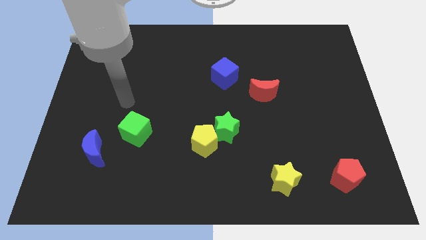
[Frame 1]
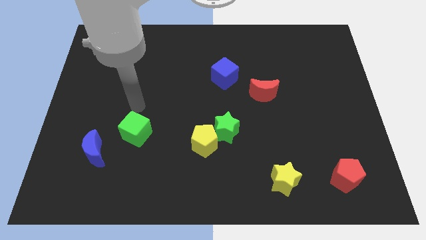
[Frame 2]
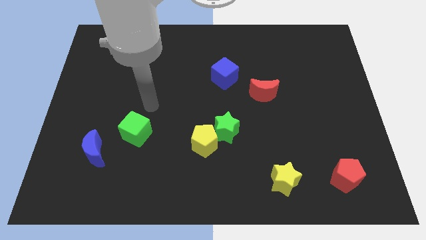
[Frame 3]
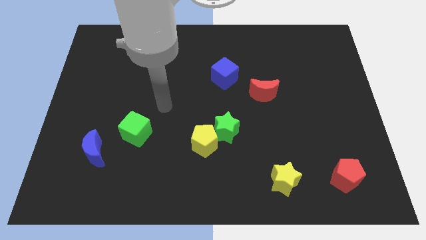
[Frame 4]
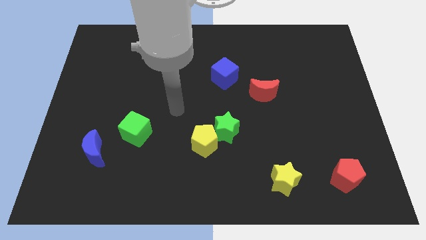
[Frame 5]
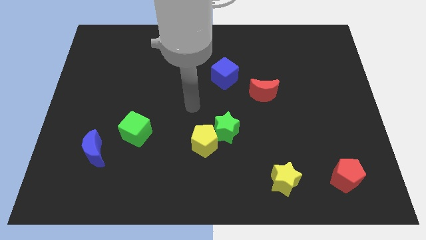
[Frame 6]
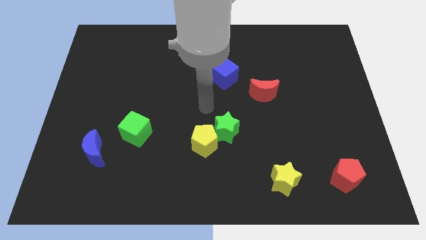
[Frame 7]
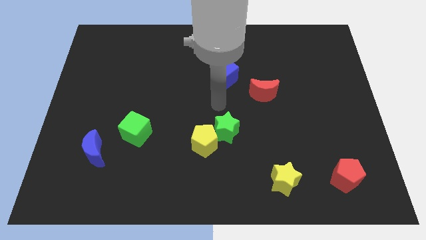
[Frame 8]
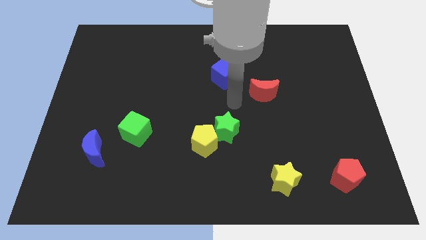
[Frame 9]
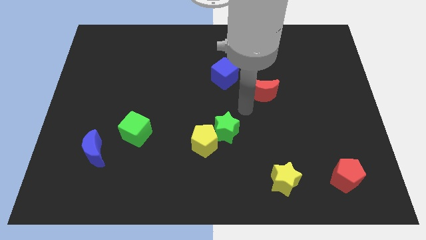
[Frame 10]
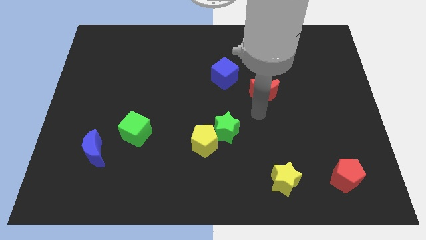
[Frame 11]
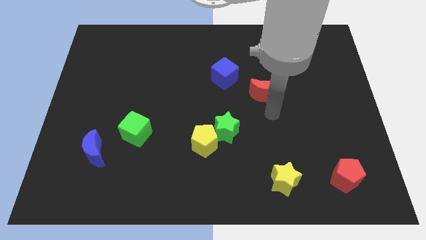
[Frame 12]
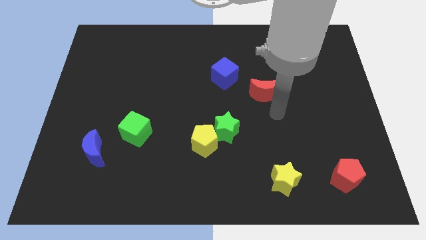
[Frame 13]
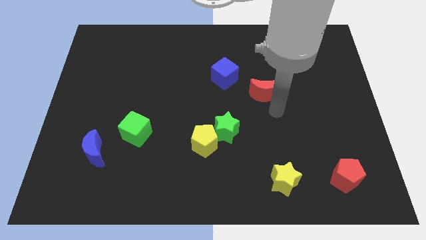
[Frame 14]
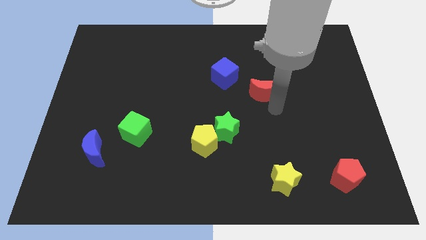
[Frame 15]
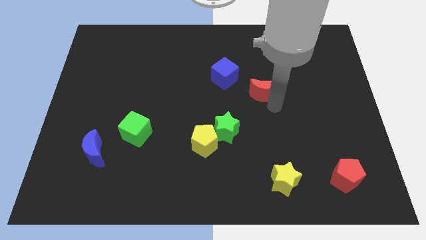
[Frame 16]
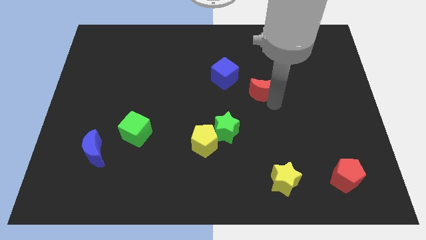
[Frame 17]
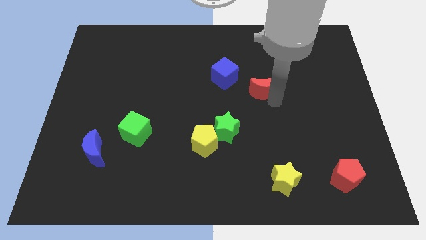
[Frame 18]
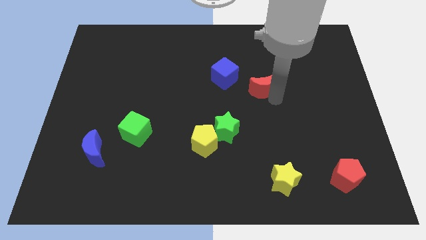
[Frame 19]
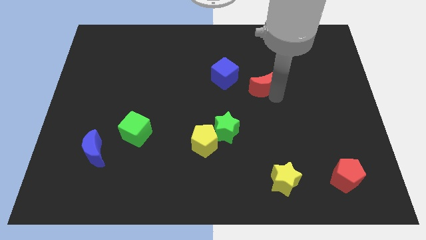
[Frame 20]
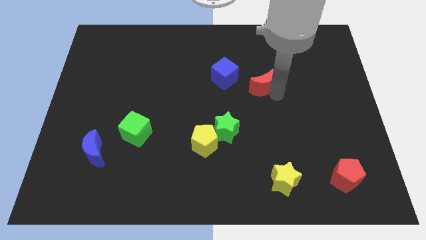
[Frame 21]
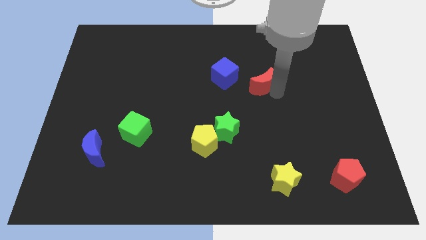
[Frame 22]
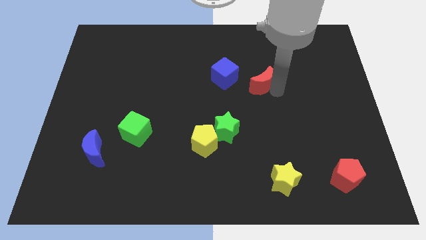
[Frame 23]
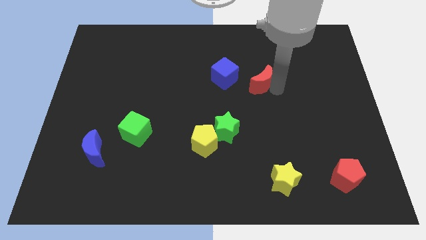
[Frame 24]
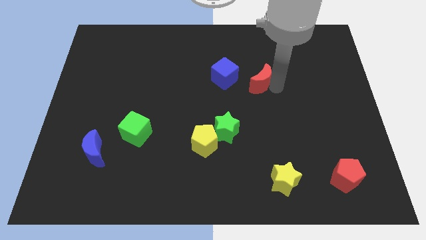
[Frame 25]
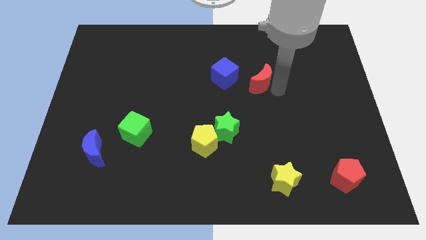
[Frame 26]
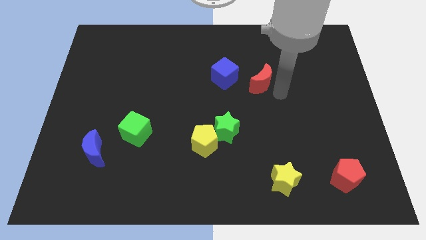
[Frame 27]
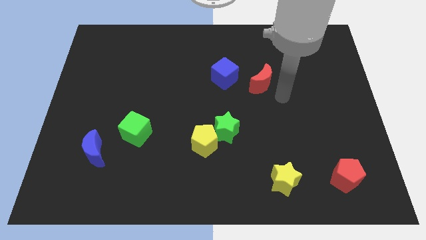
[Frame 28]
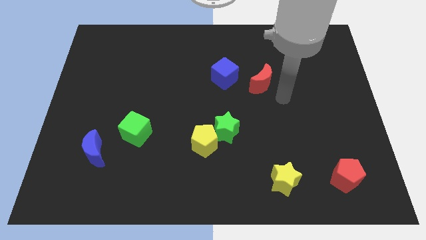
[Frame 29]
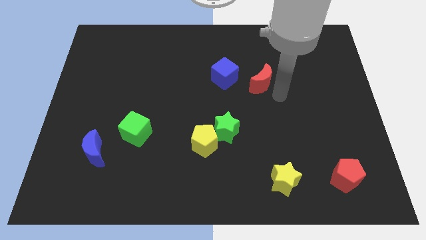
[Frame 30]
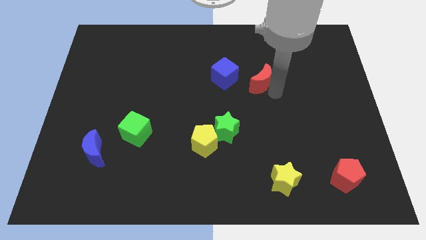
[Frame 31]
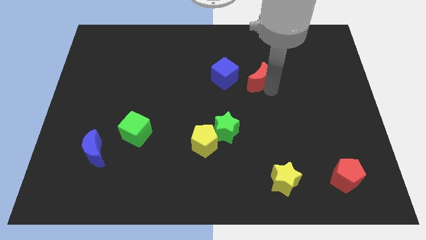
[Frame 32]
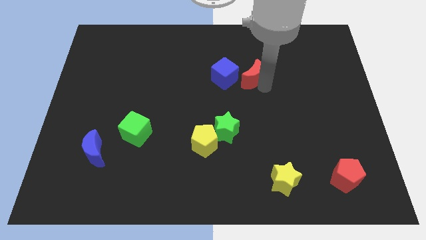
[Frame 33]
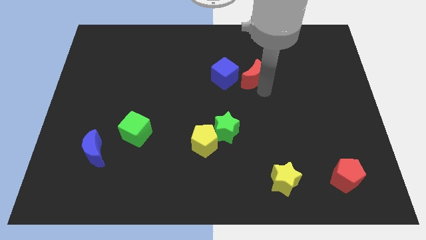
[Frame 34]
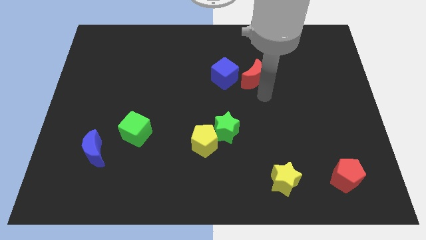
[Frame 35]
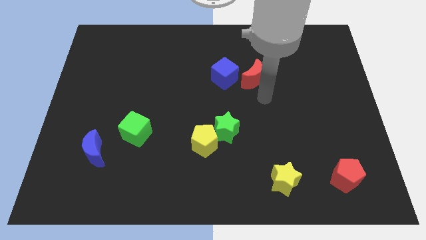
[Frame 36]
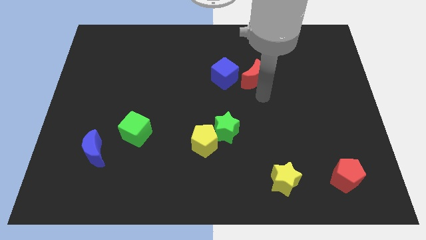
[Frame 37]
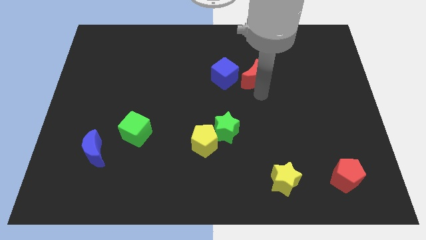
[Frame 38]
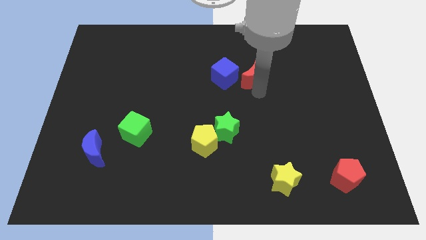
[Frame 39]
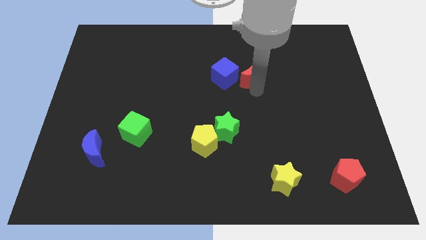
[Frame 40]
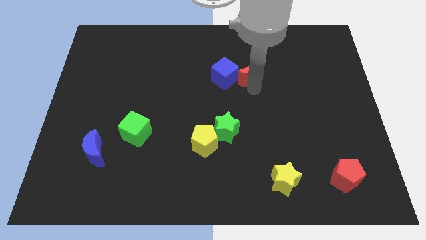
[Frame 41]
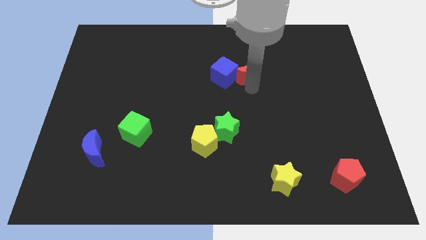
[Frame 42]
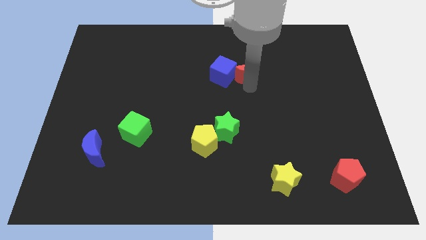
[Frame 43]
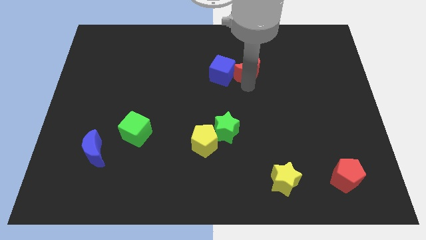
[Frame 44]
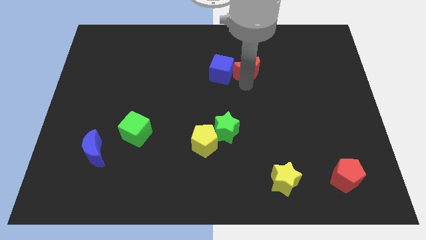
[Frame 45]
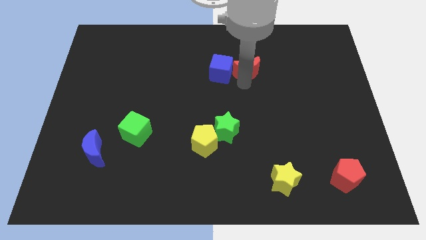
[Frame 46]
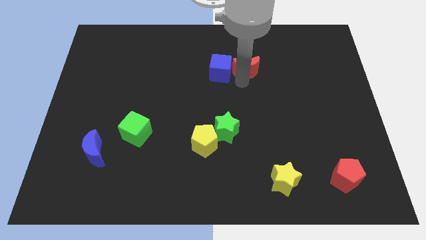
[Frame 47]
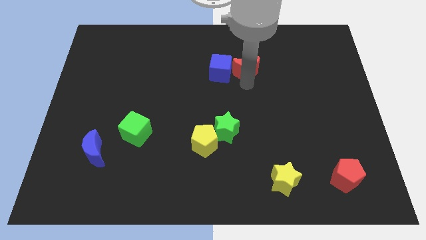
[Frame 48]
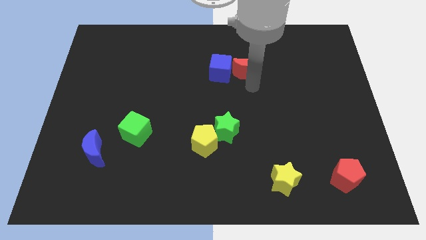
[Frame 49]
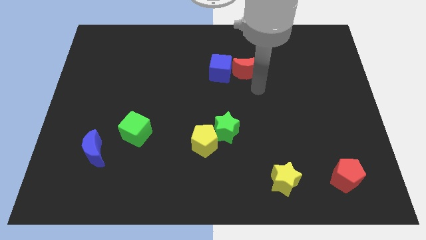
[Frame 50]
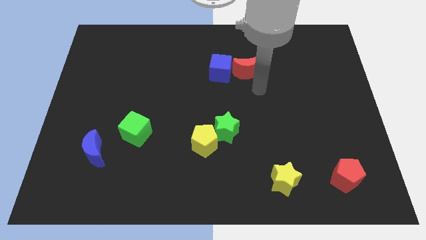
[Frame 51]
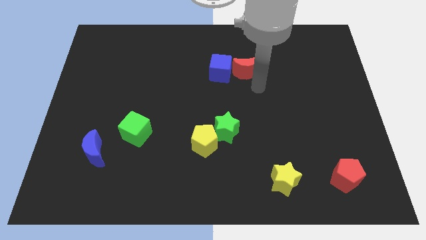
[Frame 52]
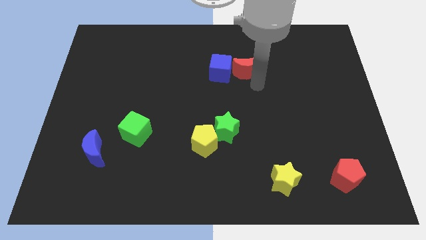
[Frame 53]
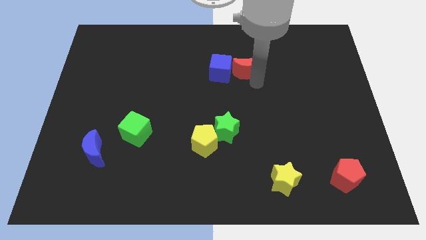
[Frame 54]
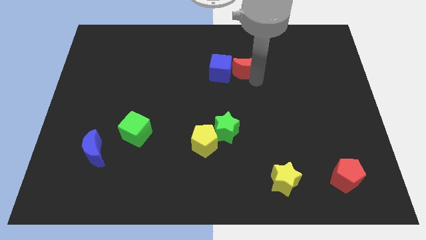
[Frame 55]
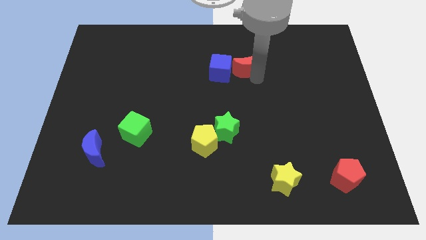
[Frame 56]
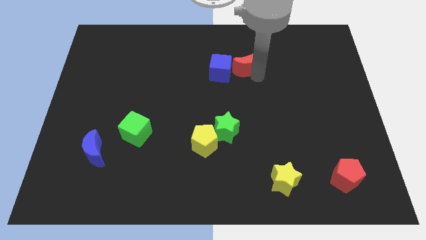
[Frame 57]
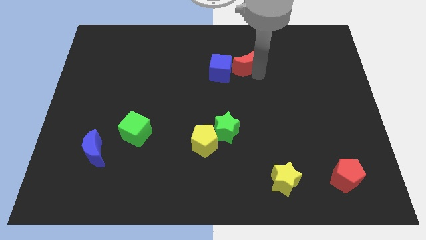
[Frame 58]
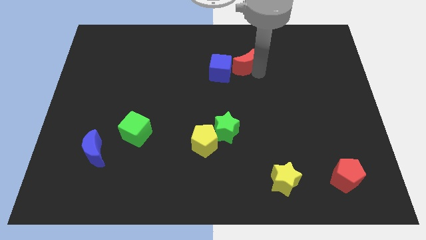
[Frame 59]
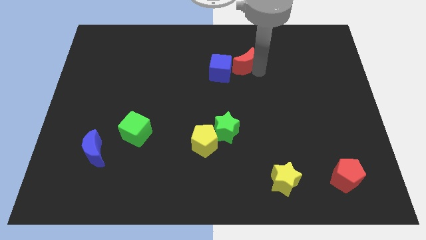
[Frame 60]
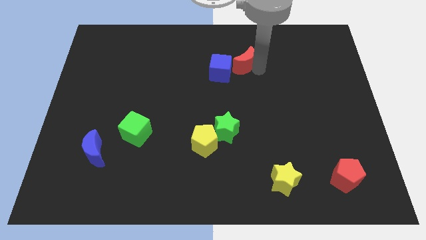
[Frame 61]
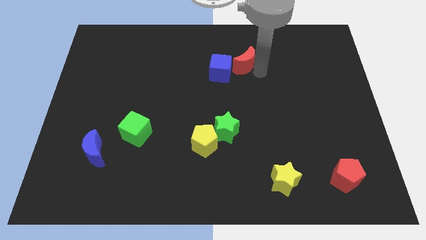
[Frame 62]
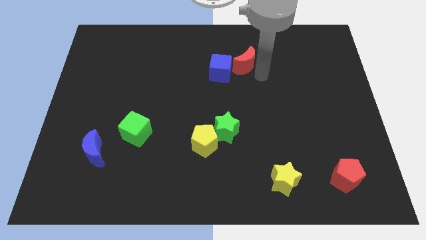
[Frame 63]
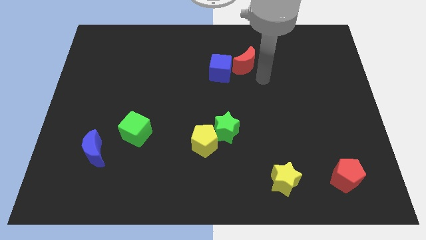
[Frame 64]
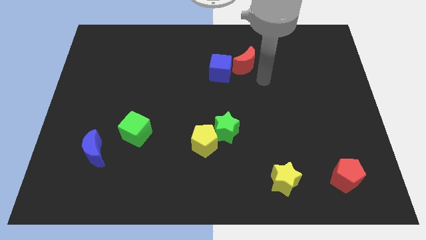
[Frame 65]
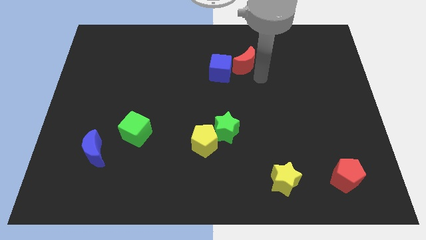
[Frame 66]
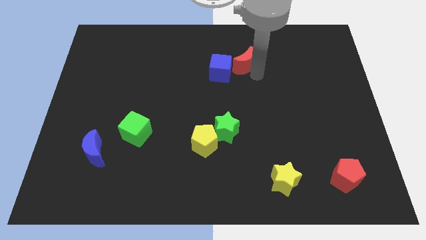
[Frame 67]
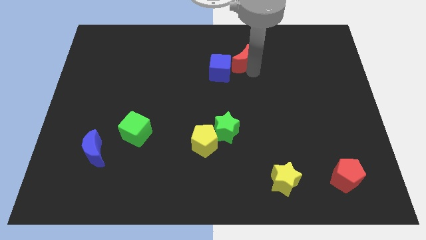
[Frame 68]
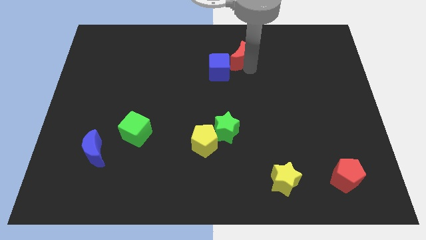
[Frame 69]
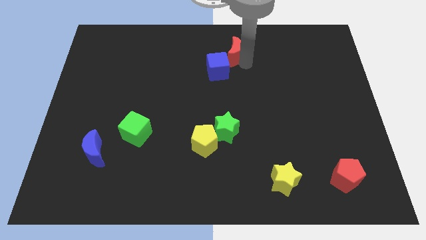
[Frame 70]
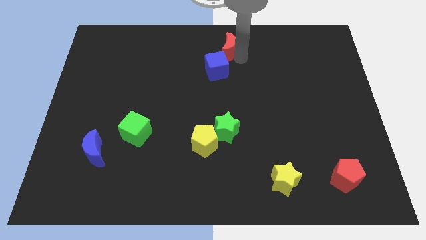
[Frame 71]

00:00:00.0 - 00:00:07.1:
put the red moon to the top
